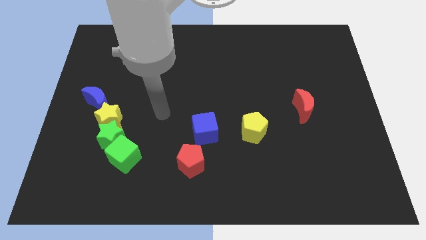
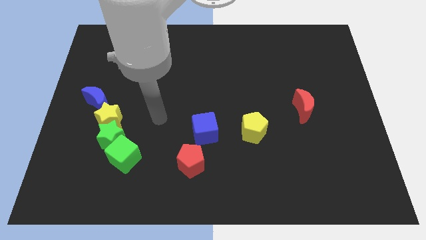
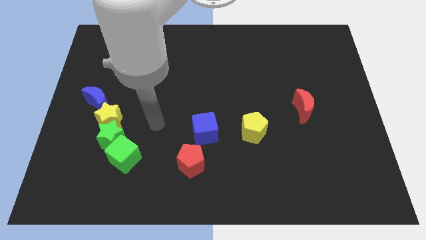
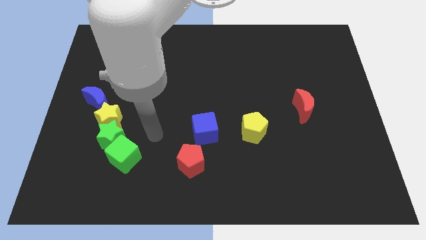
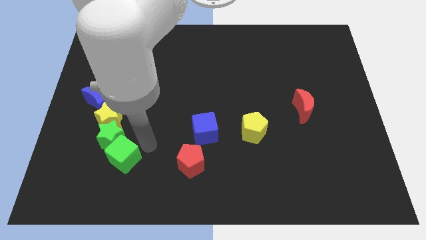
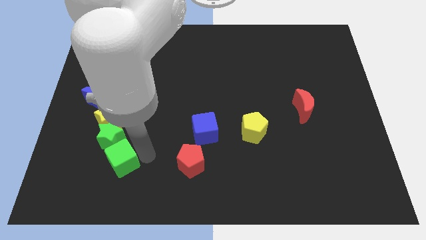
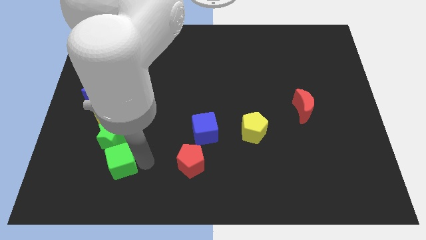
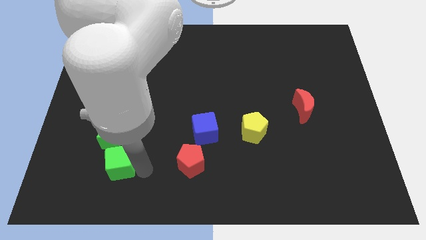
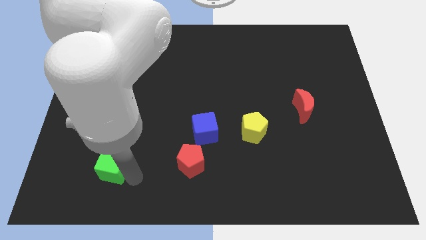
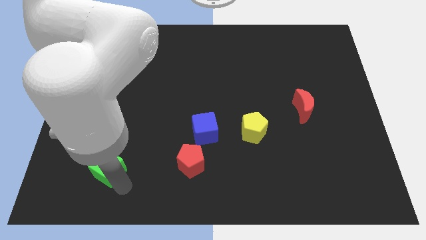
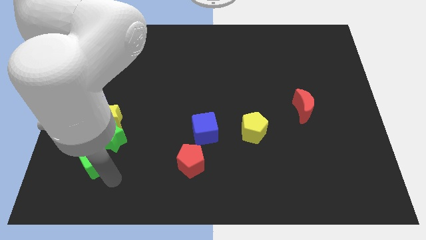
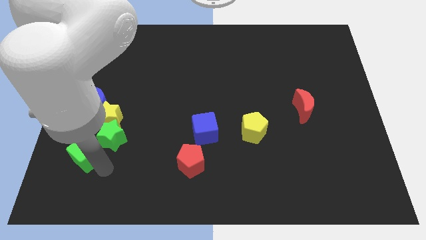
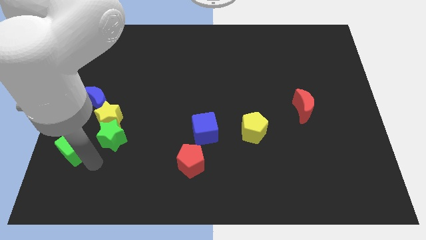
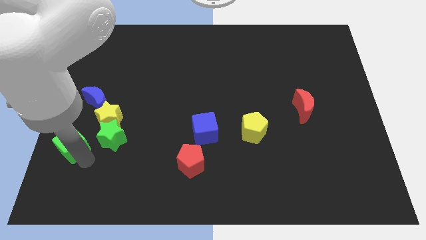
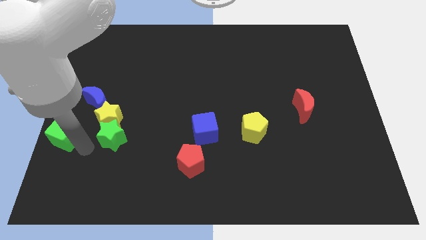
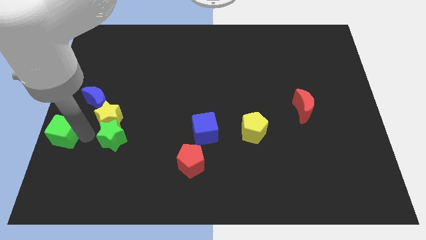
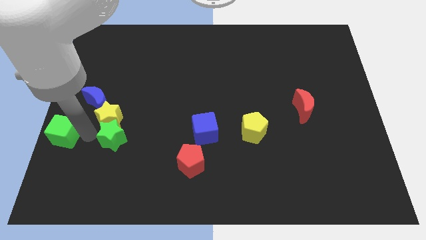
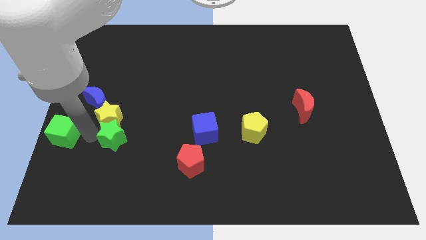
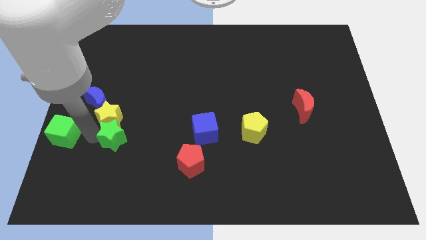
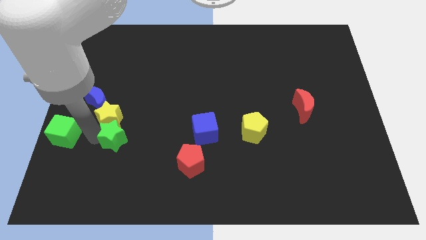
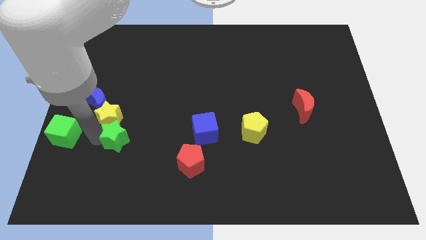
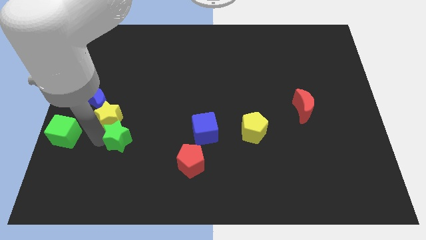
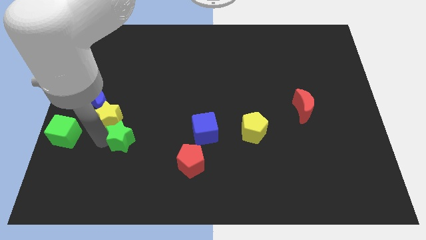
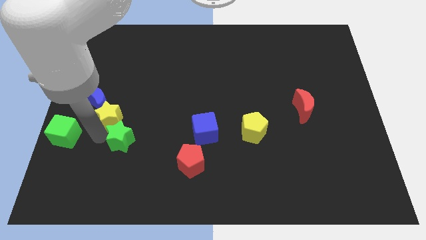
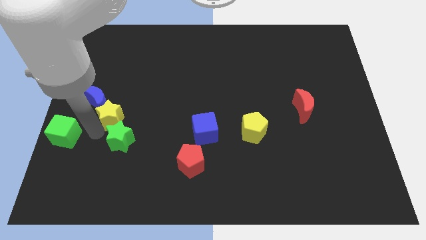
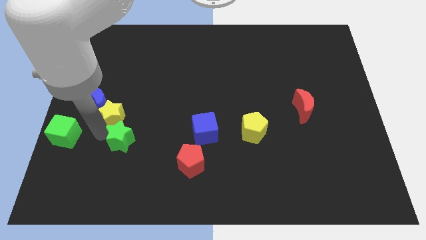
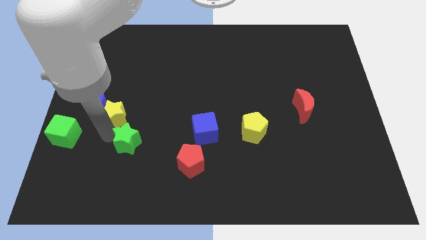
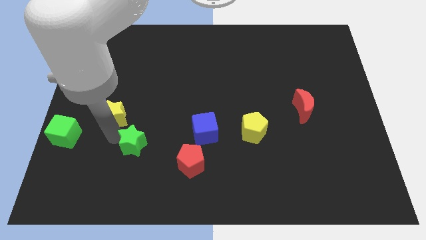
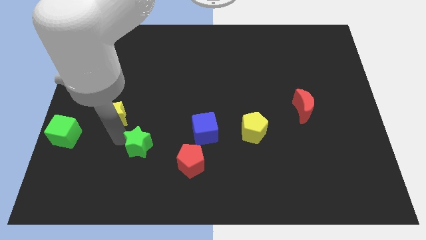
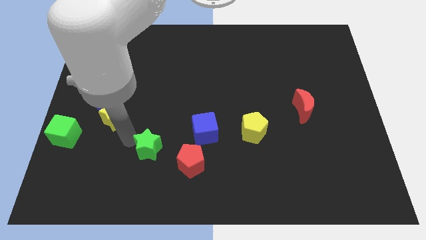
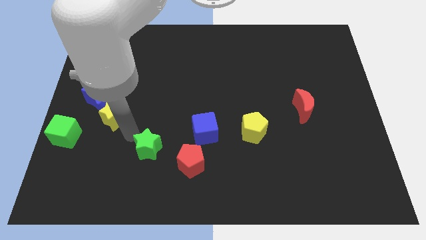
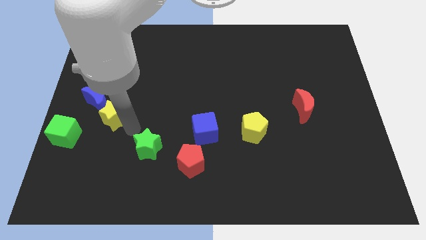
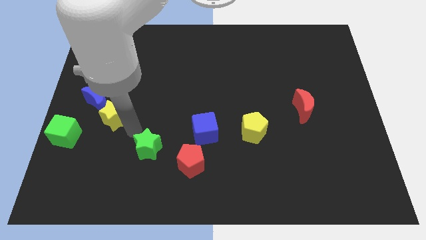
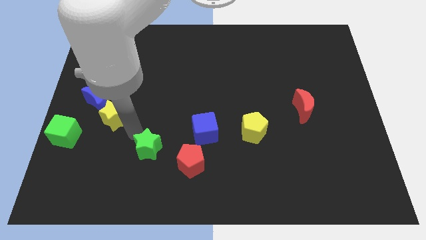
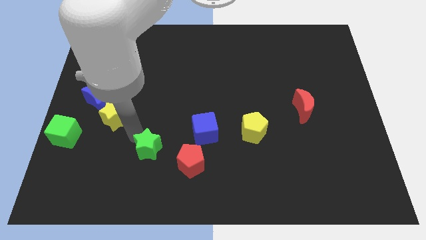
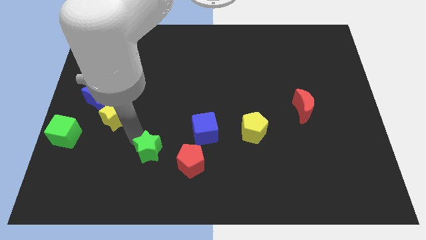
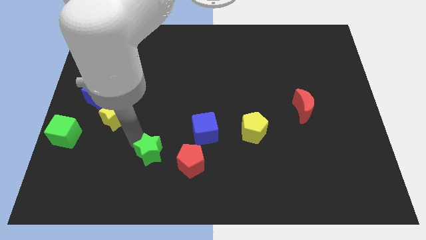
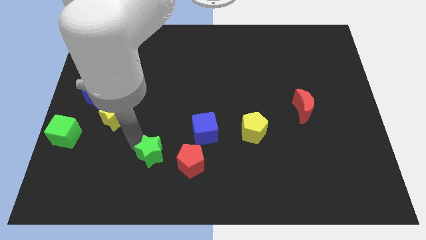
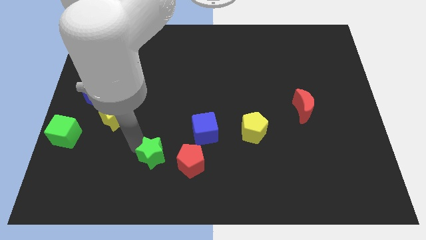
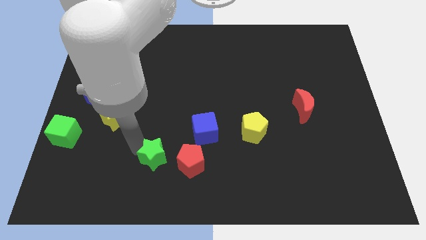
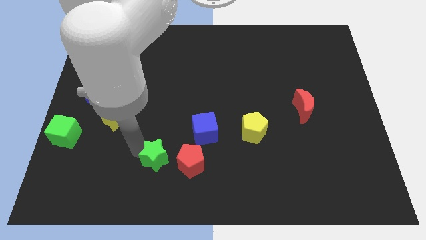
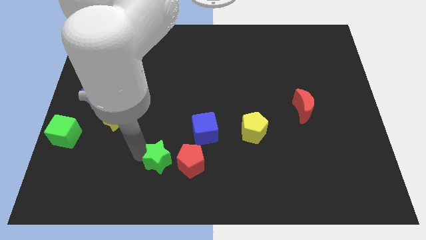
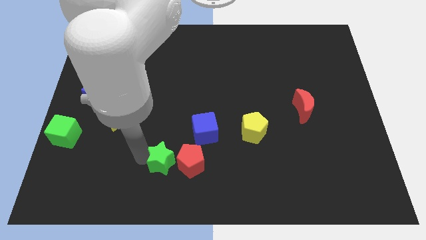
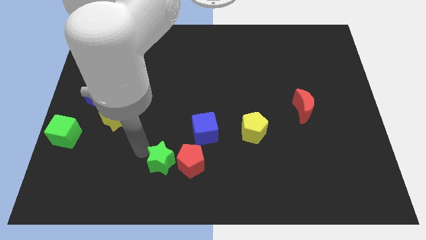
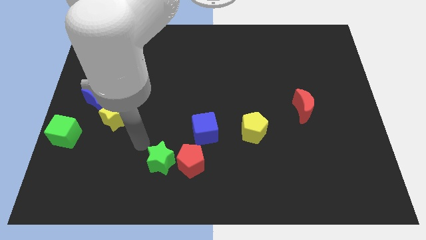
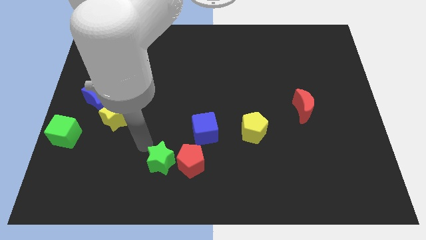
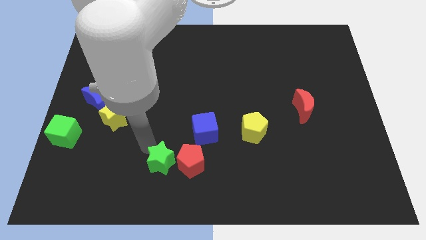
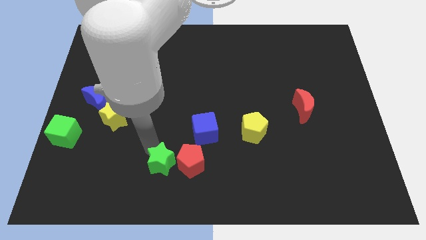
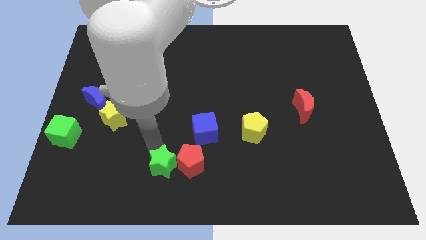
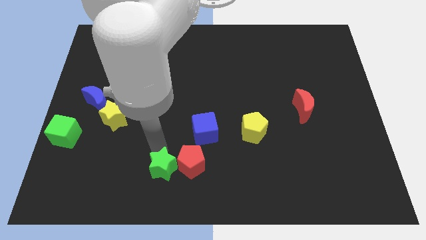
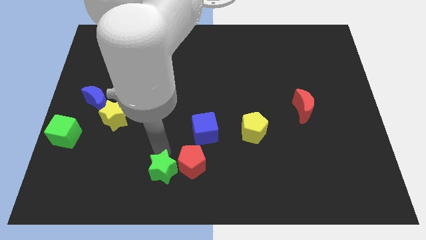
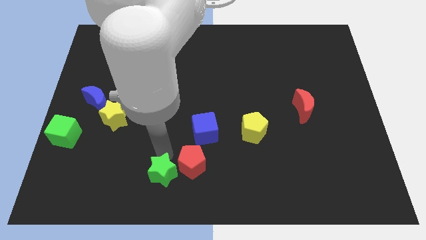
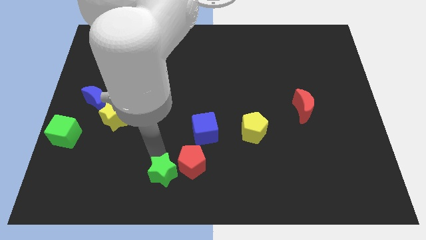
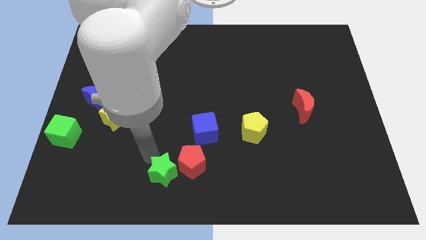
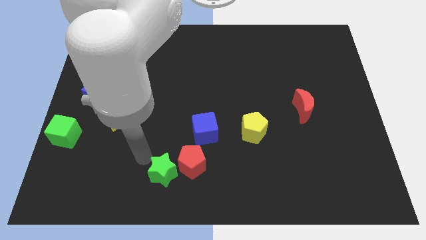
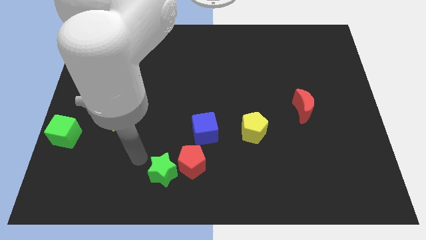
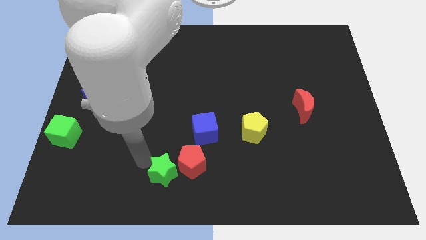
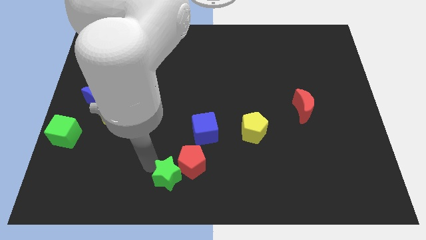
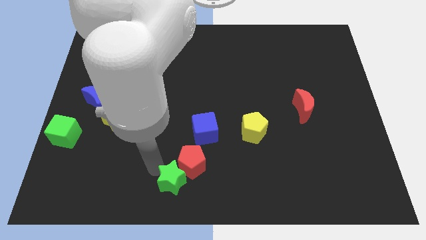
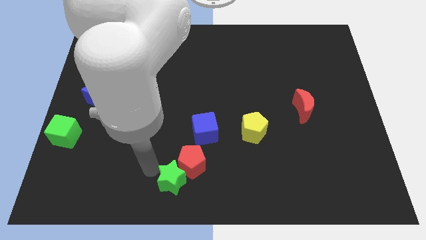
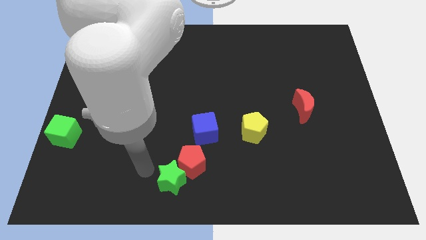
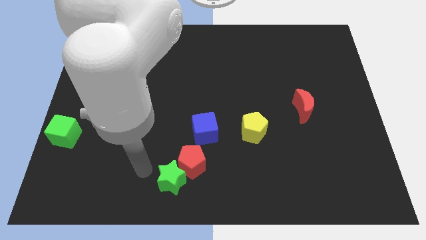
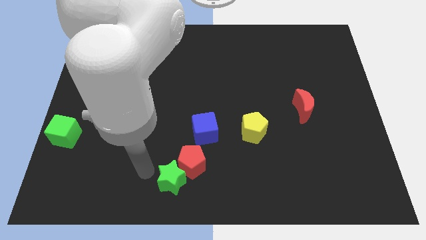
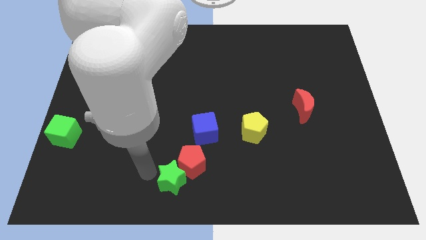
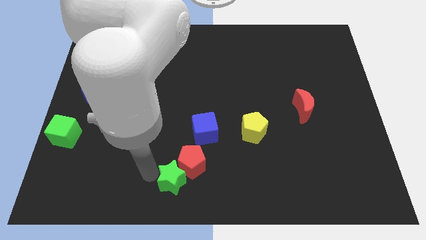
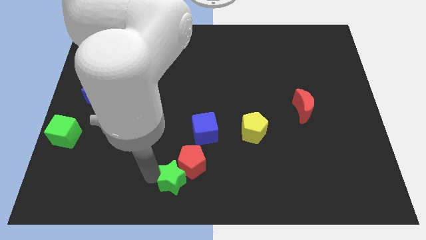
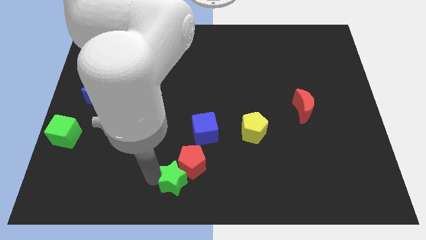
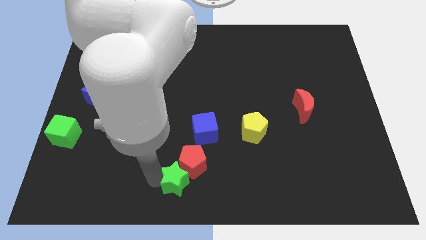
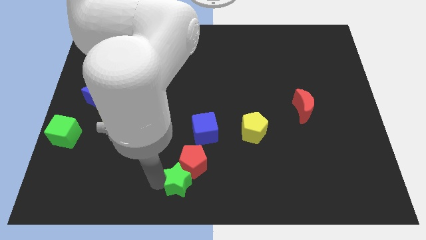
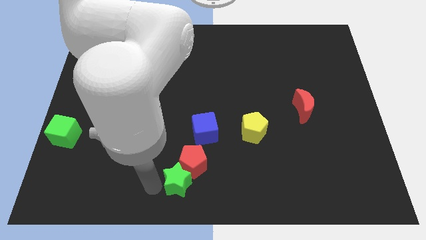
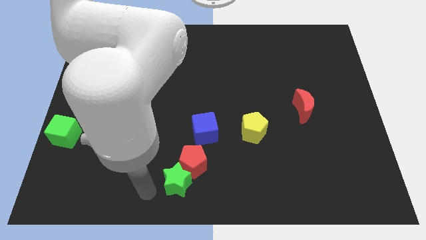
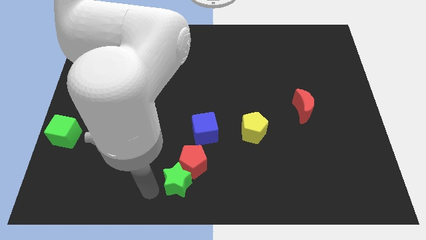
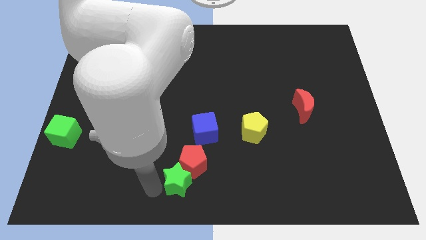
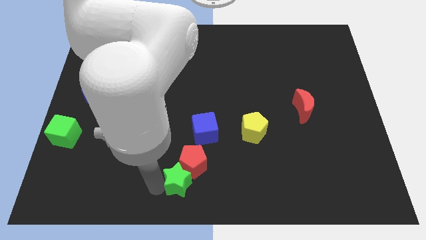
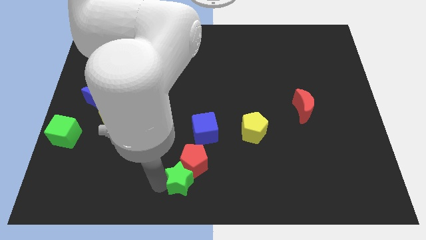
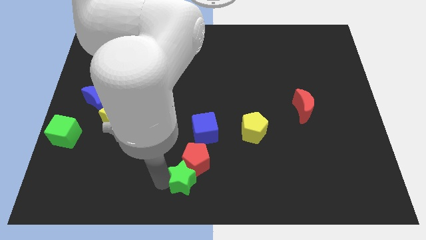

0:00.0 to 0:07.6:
put the green star below the blue cube
